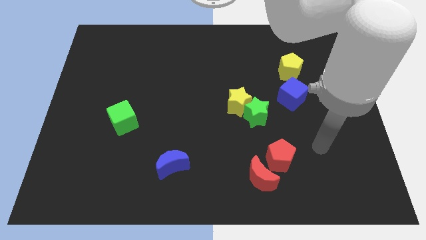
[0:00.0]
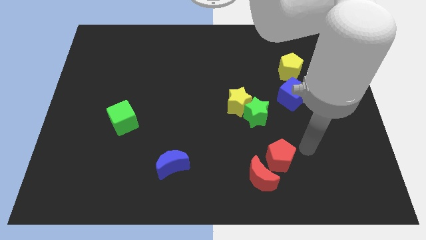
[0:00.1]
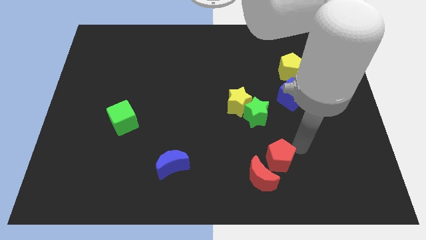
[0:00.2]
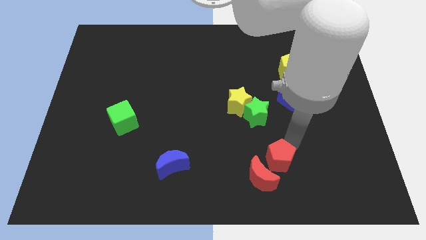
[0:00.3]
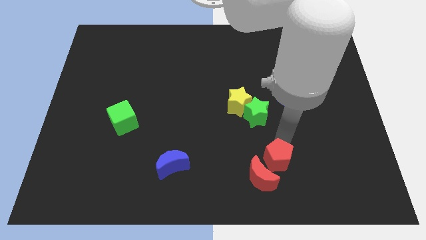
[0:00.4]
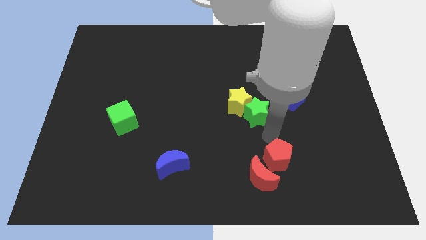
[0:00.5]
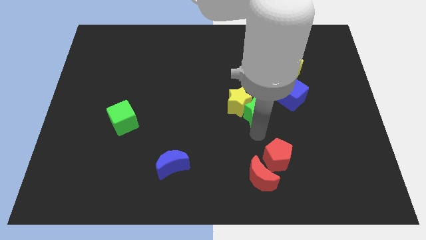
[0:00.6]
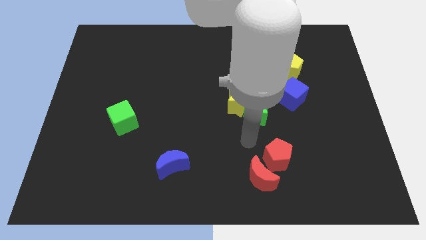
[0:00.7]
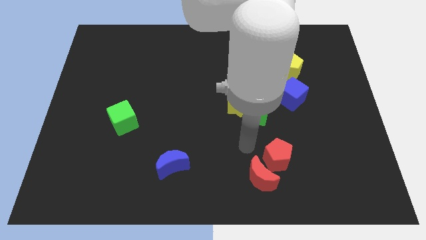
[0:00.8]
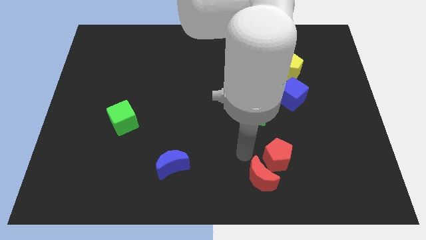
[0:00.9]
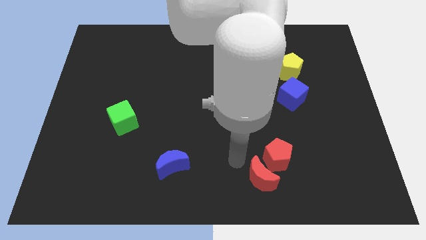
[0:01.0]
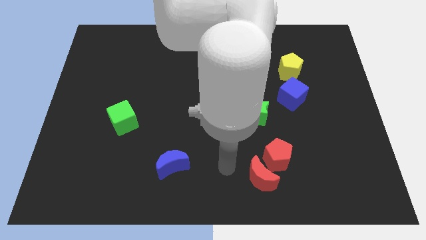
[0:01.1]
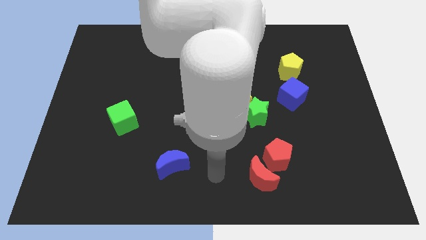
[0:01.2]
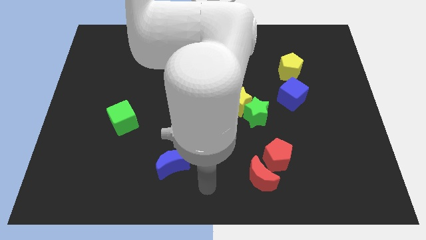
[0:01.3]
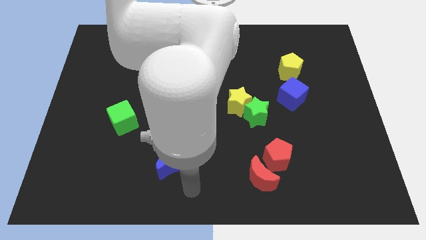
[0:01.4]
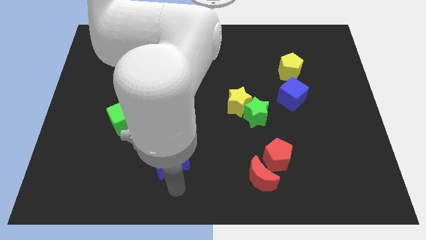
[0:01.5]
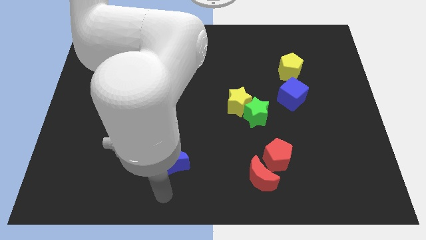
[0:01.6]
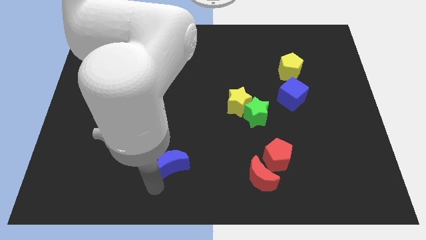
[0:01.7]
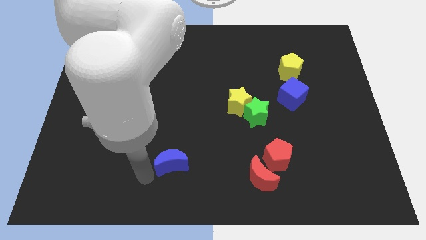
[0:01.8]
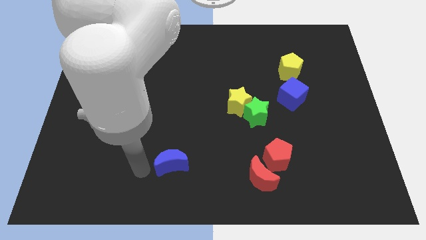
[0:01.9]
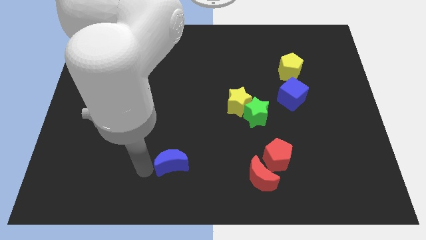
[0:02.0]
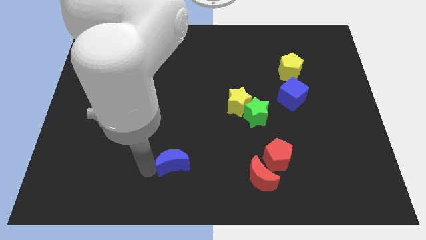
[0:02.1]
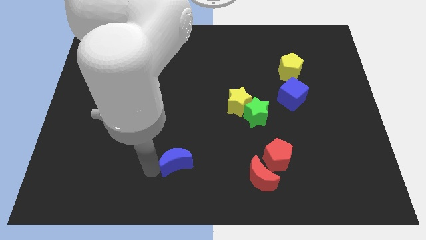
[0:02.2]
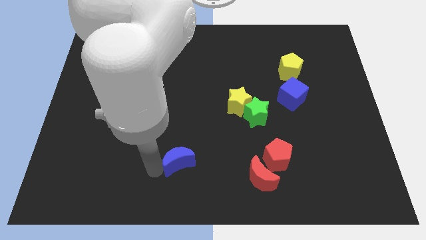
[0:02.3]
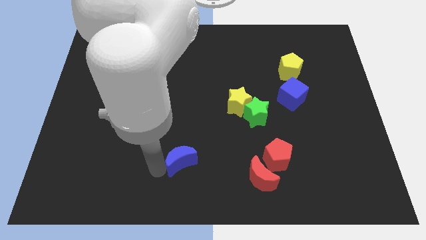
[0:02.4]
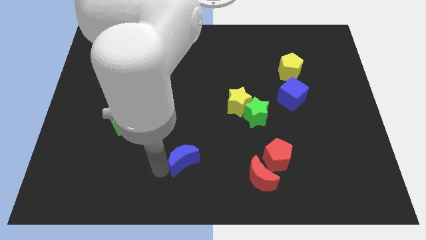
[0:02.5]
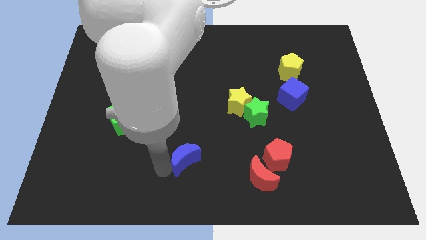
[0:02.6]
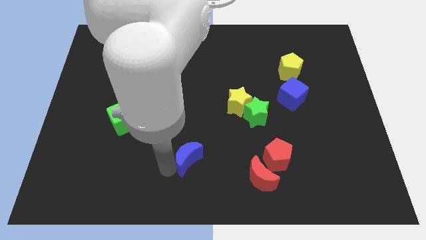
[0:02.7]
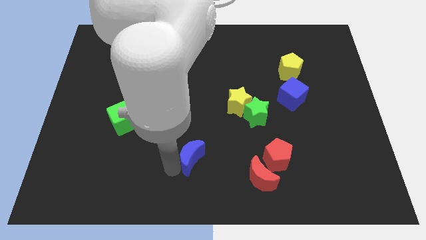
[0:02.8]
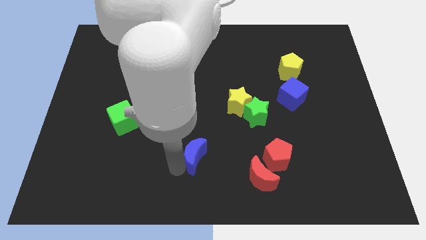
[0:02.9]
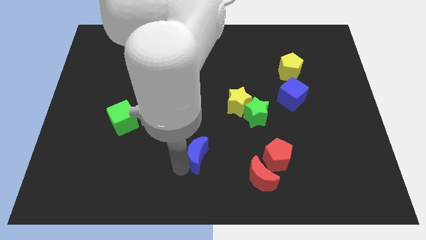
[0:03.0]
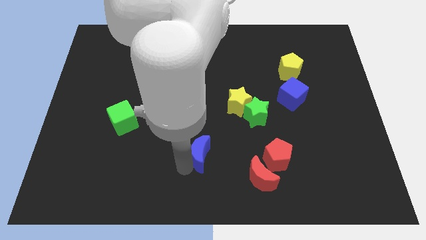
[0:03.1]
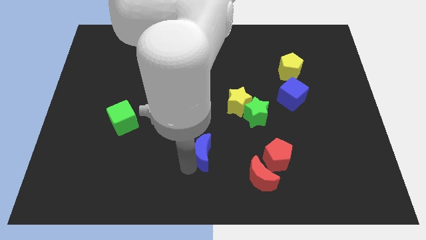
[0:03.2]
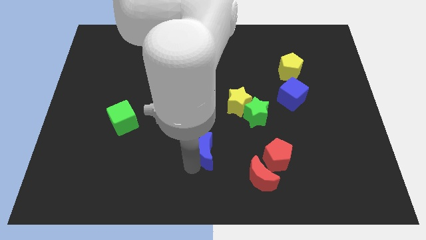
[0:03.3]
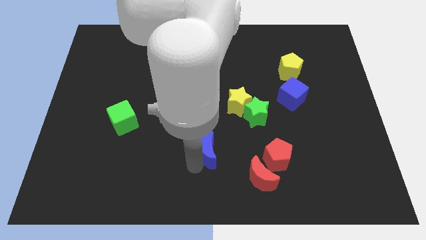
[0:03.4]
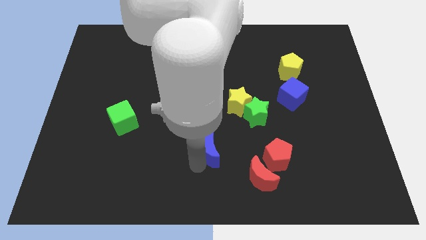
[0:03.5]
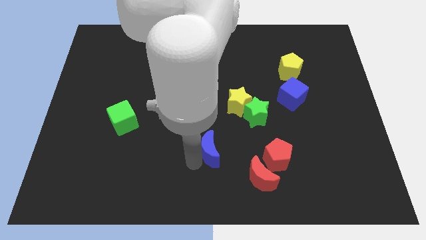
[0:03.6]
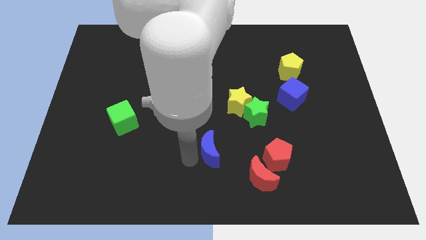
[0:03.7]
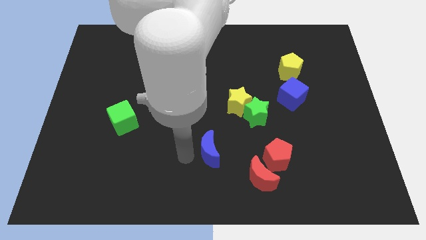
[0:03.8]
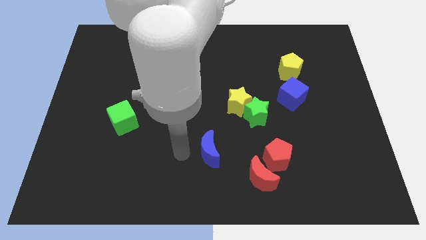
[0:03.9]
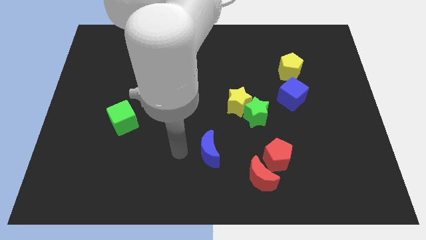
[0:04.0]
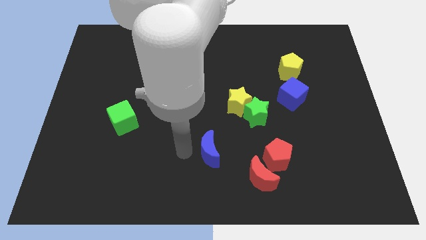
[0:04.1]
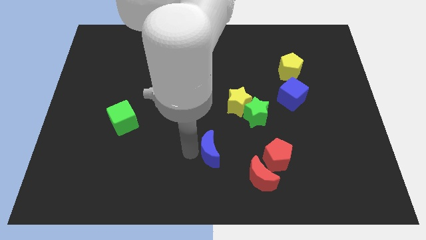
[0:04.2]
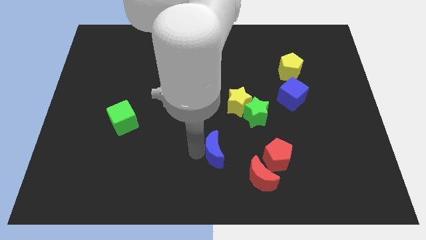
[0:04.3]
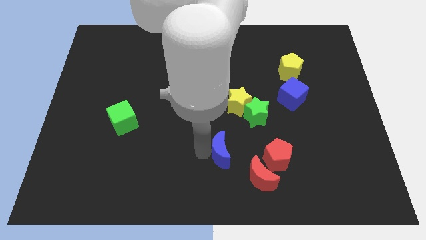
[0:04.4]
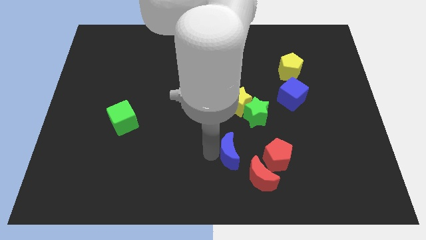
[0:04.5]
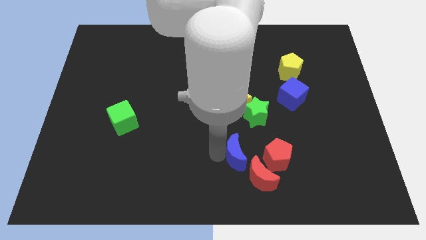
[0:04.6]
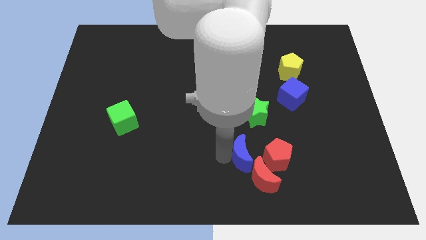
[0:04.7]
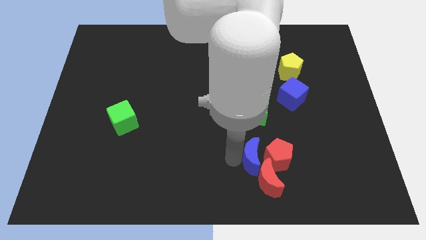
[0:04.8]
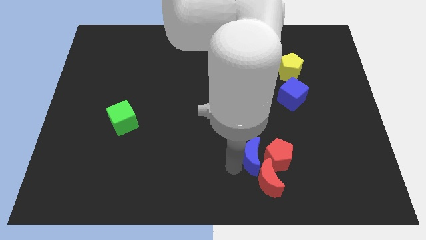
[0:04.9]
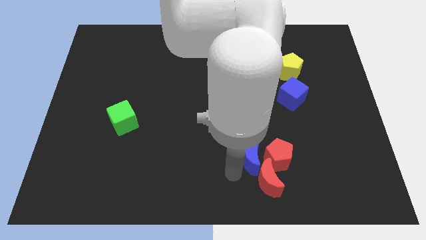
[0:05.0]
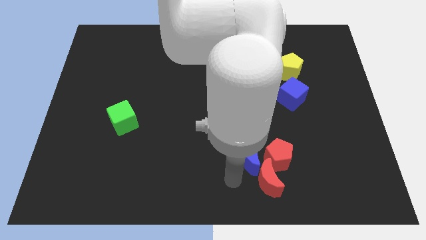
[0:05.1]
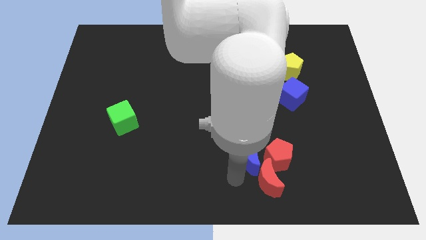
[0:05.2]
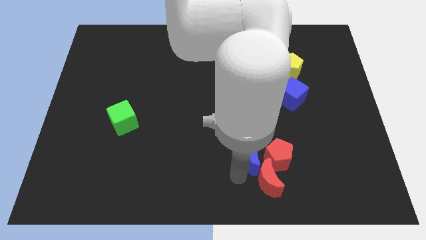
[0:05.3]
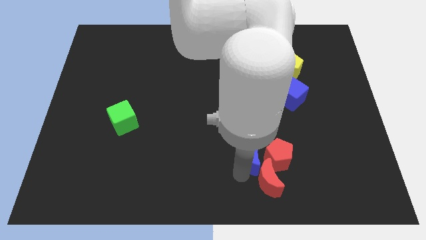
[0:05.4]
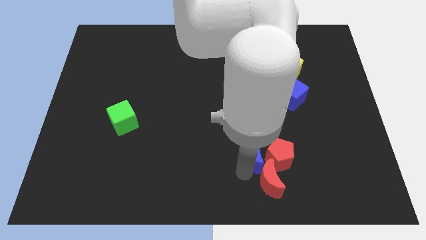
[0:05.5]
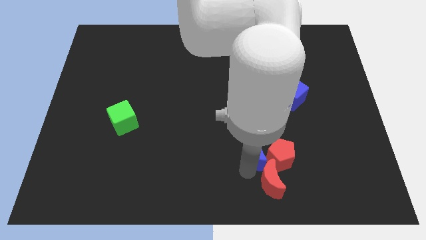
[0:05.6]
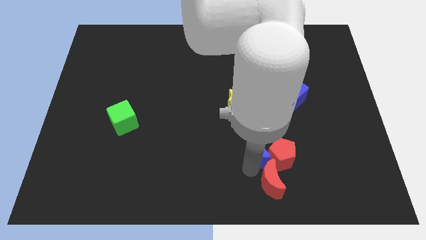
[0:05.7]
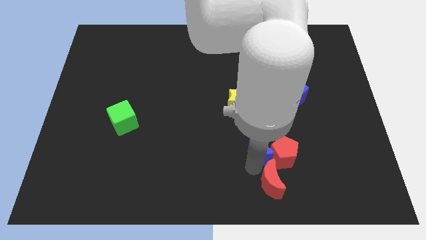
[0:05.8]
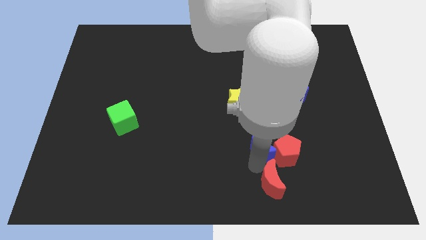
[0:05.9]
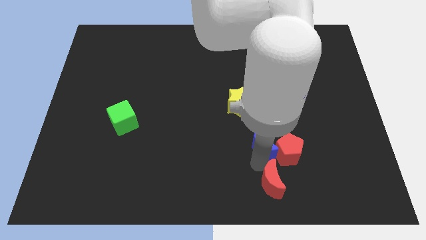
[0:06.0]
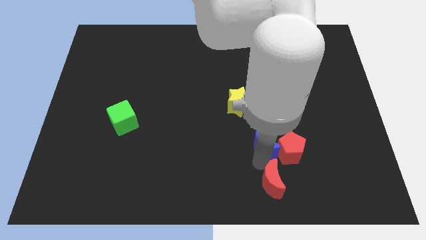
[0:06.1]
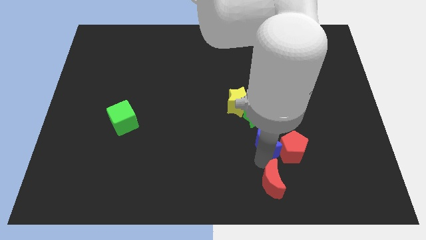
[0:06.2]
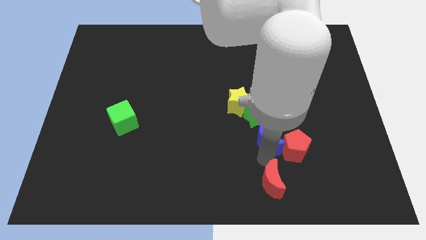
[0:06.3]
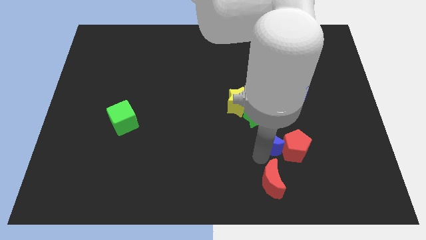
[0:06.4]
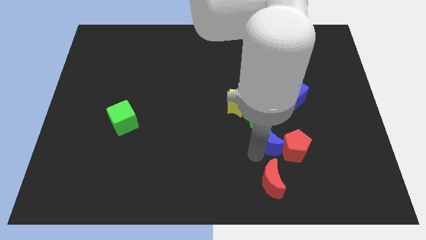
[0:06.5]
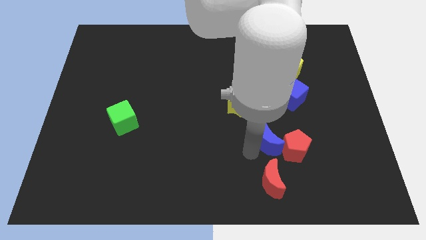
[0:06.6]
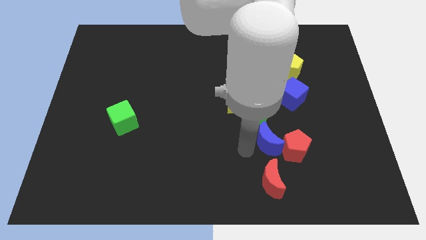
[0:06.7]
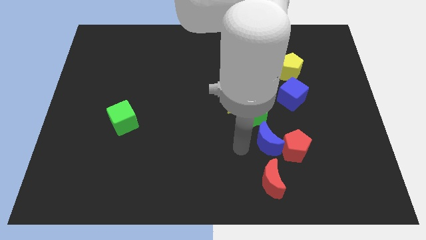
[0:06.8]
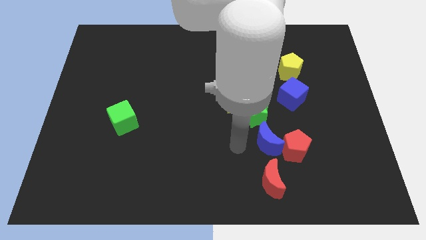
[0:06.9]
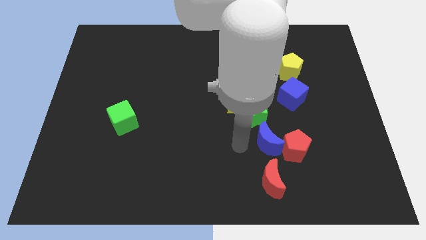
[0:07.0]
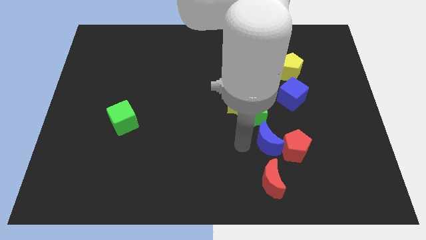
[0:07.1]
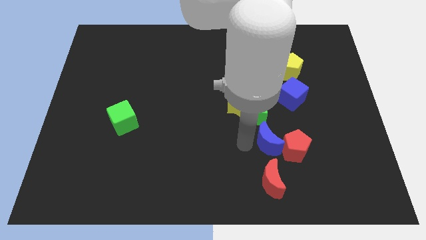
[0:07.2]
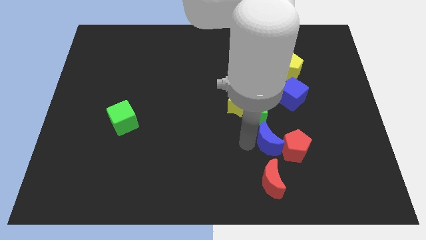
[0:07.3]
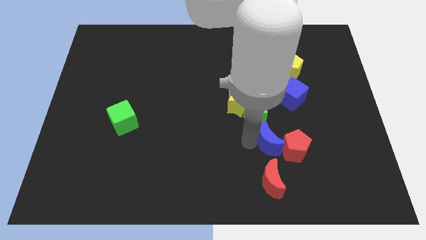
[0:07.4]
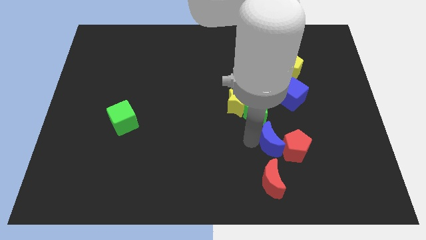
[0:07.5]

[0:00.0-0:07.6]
slide the blue moon to the right

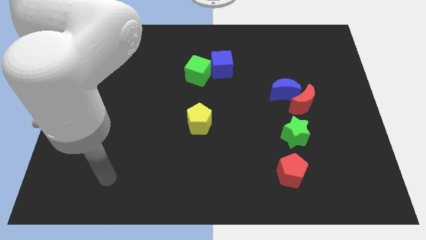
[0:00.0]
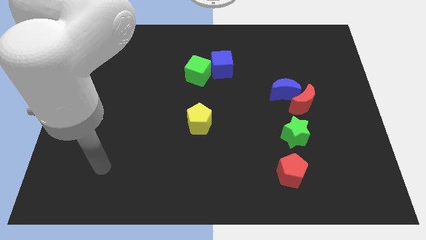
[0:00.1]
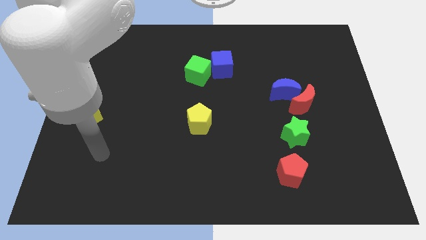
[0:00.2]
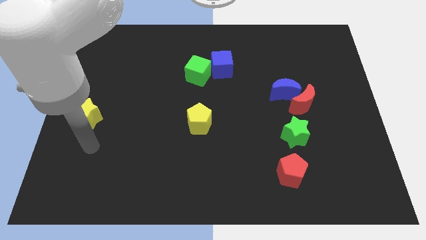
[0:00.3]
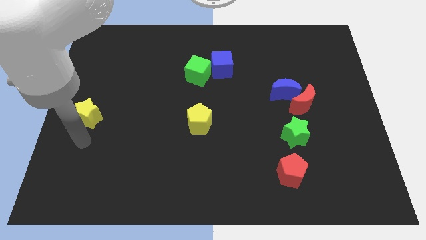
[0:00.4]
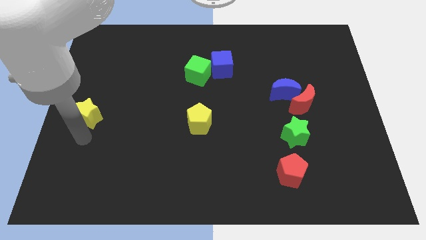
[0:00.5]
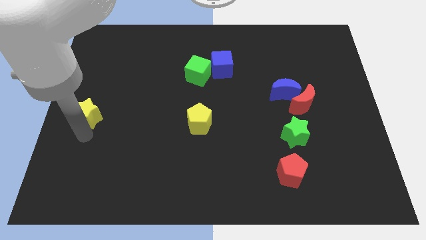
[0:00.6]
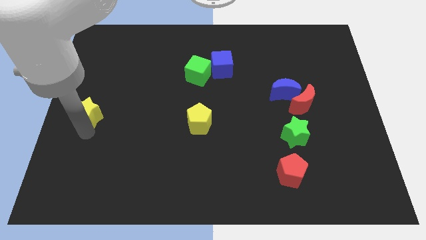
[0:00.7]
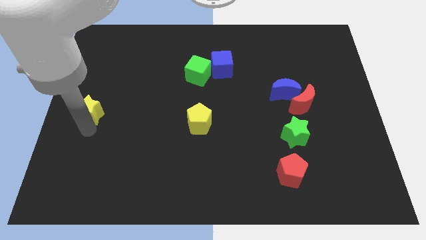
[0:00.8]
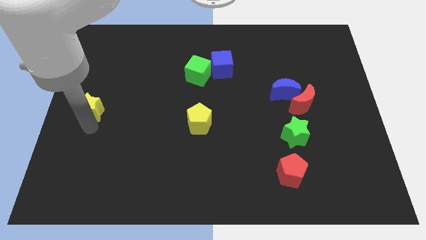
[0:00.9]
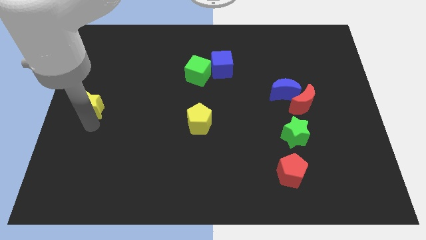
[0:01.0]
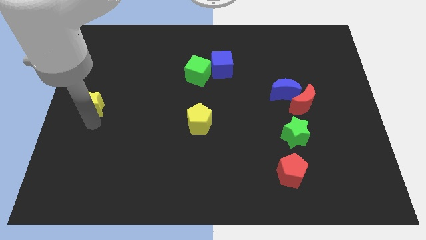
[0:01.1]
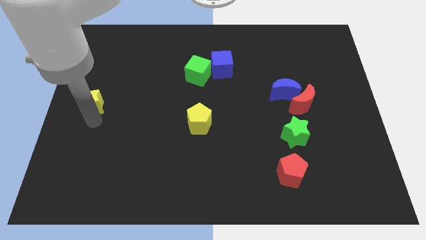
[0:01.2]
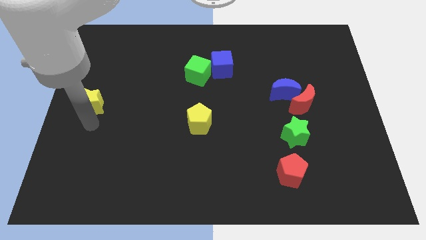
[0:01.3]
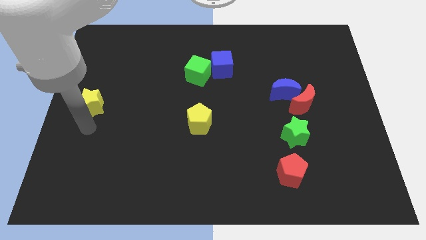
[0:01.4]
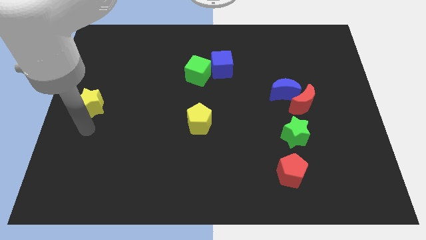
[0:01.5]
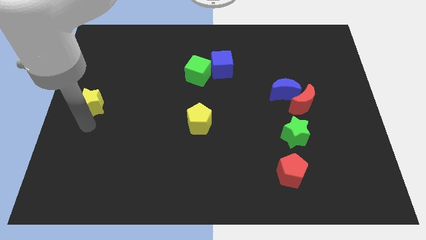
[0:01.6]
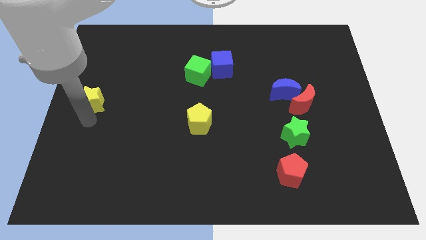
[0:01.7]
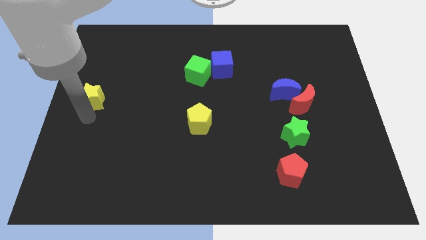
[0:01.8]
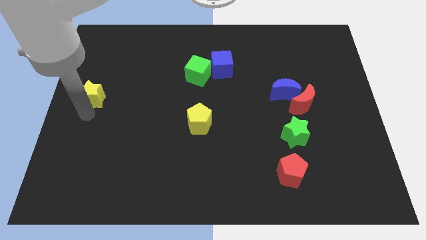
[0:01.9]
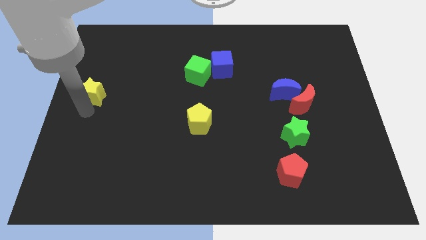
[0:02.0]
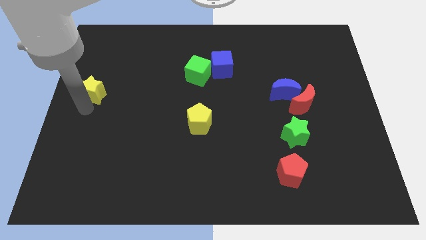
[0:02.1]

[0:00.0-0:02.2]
slightly slide the yellow star upwards
